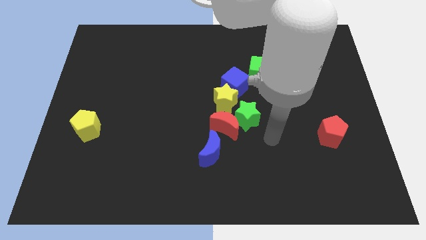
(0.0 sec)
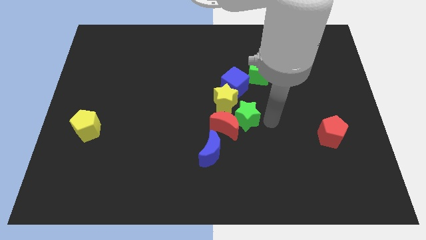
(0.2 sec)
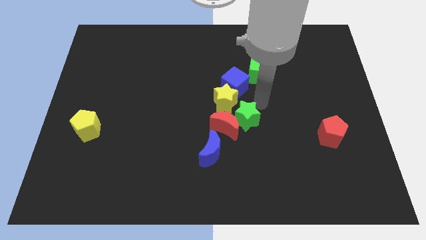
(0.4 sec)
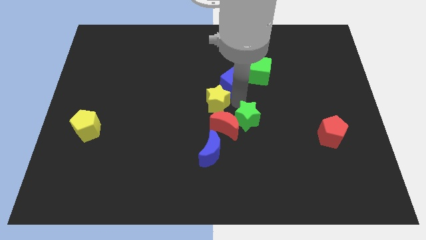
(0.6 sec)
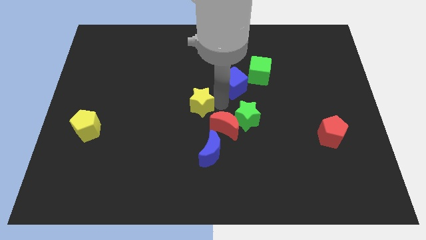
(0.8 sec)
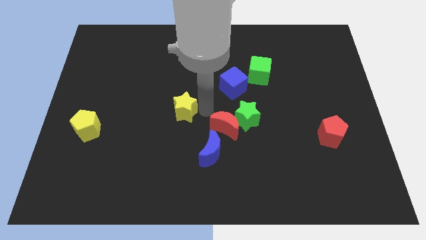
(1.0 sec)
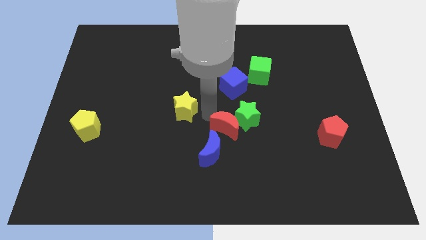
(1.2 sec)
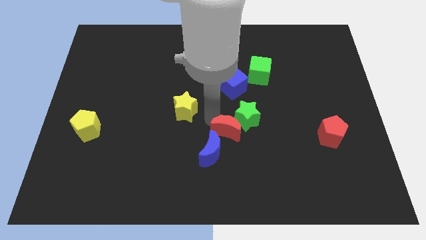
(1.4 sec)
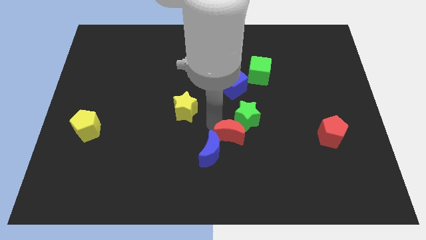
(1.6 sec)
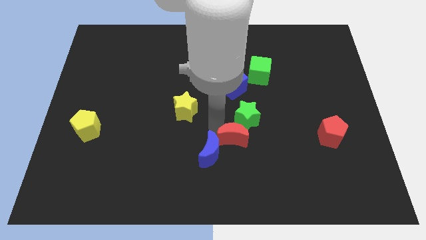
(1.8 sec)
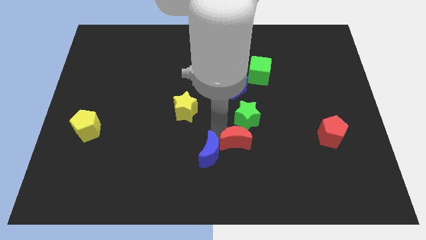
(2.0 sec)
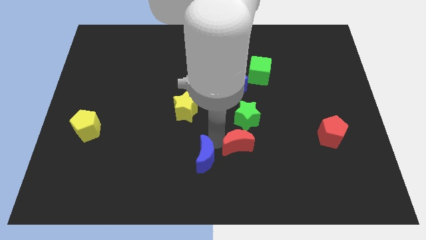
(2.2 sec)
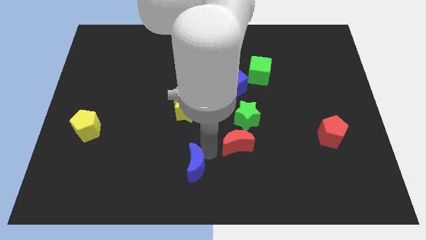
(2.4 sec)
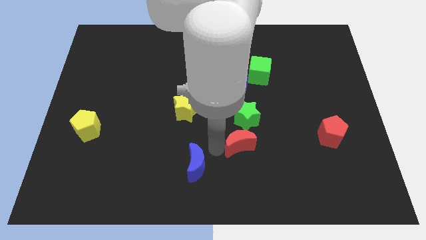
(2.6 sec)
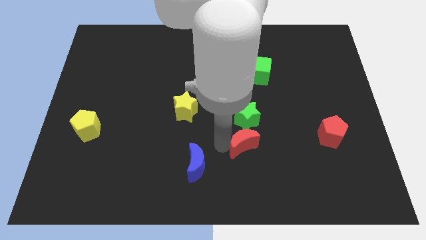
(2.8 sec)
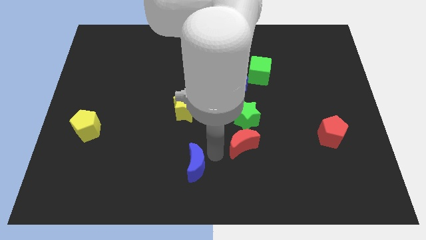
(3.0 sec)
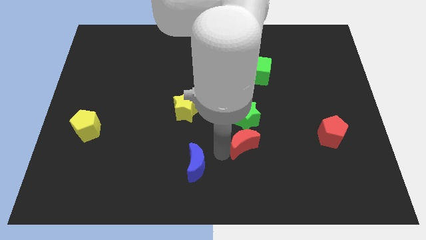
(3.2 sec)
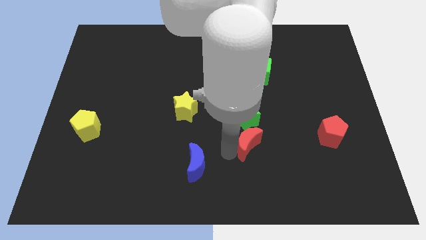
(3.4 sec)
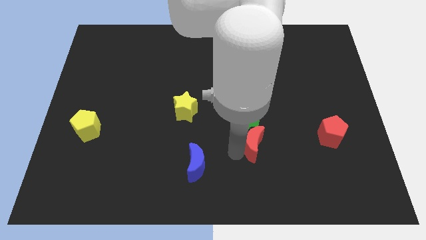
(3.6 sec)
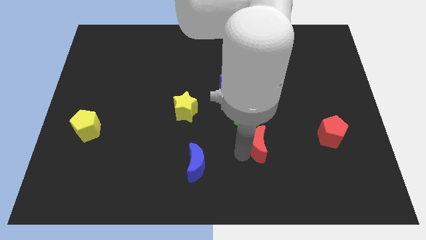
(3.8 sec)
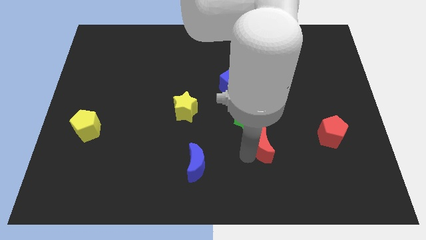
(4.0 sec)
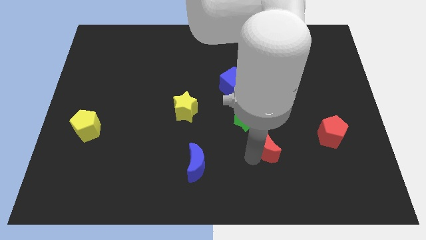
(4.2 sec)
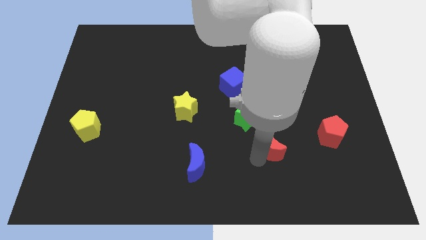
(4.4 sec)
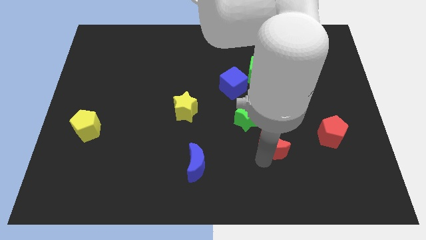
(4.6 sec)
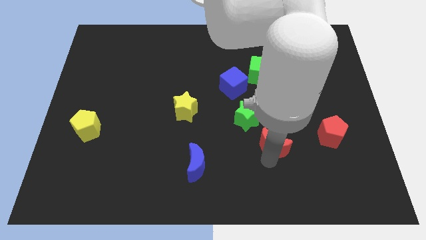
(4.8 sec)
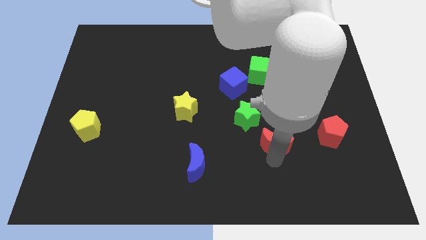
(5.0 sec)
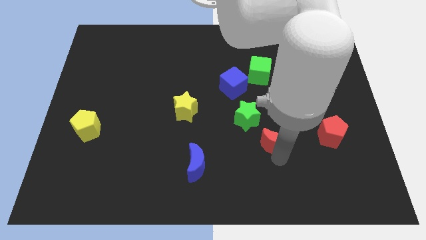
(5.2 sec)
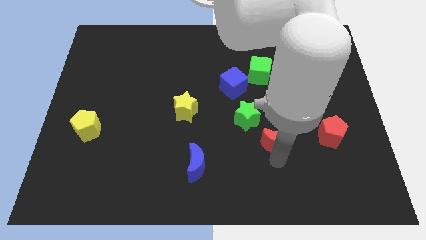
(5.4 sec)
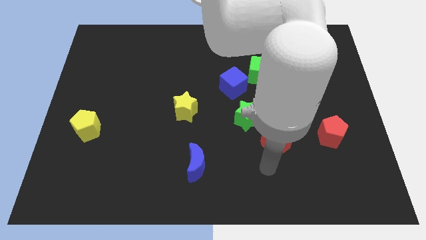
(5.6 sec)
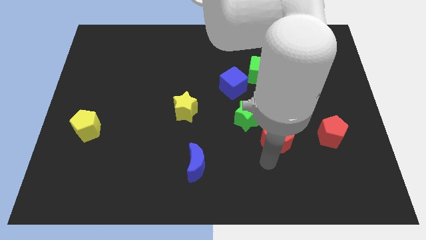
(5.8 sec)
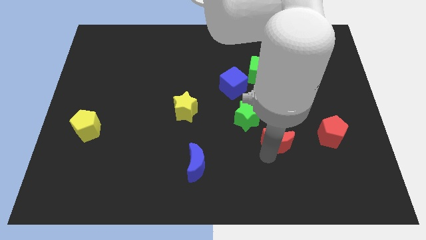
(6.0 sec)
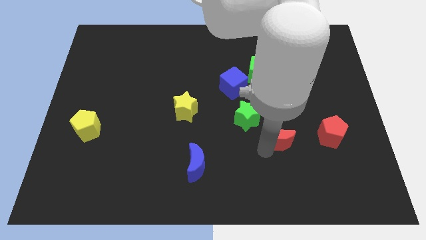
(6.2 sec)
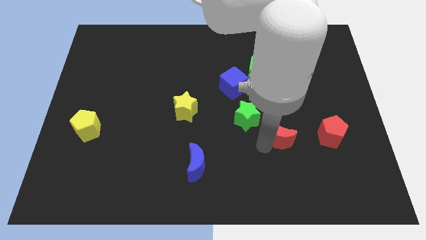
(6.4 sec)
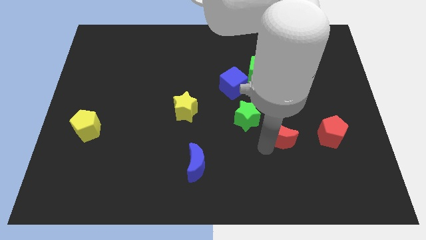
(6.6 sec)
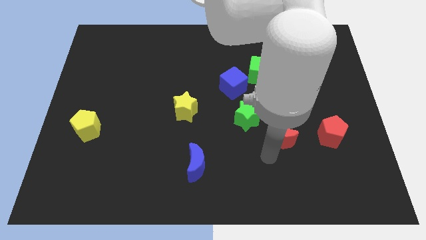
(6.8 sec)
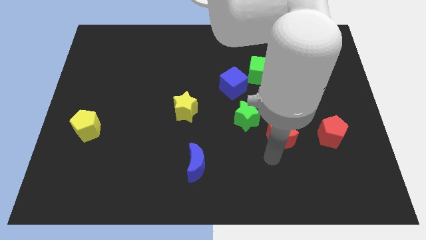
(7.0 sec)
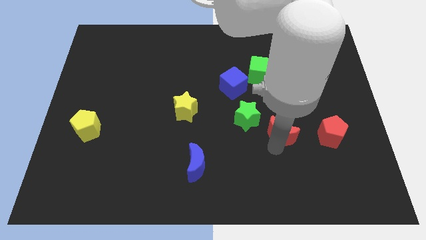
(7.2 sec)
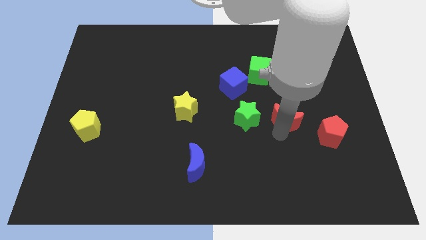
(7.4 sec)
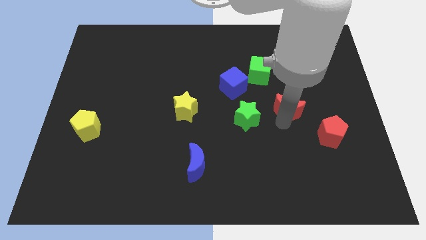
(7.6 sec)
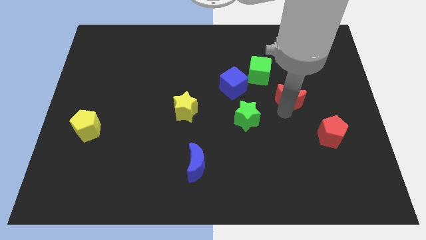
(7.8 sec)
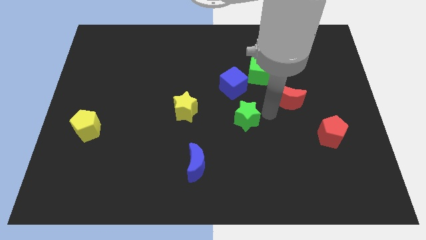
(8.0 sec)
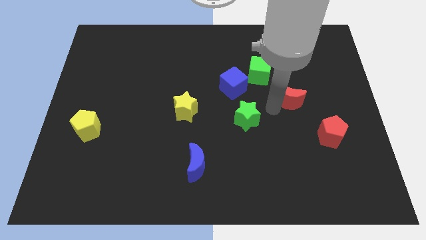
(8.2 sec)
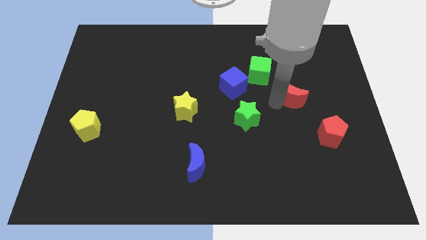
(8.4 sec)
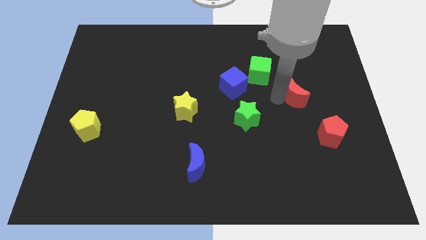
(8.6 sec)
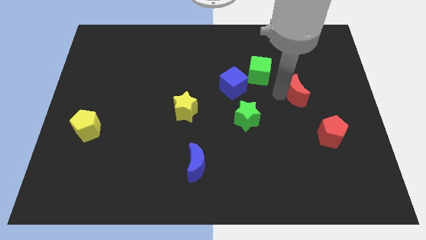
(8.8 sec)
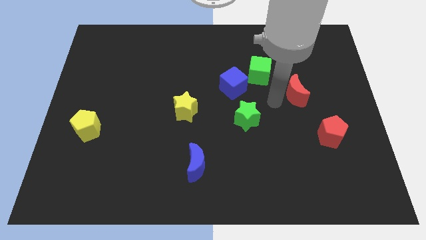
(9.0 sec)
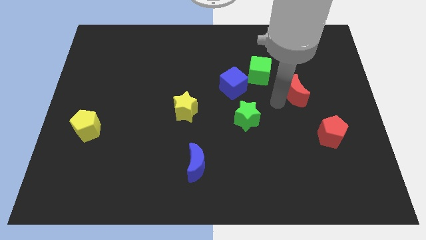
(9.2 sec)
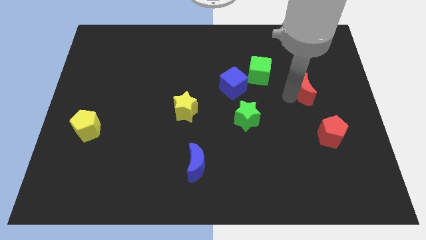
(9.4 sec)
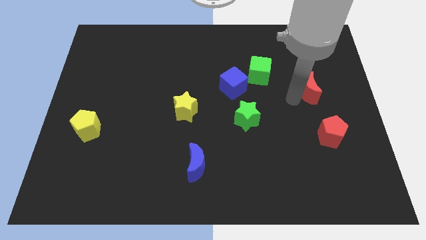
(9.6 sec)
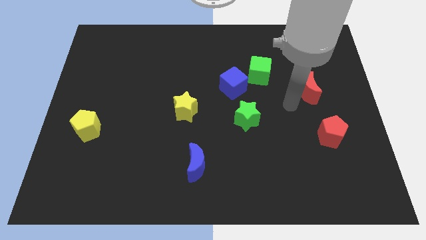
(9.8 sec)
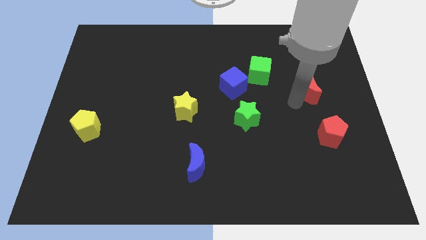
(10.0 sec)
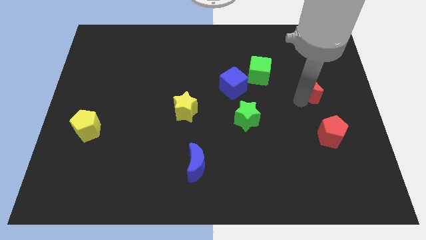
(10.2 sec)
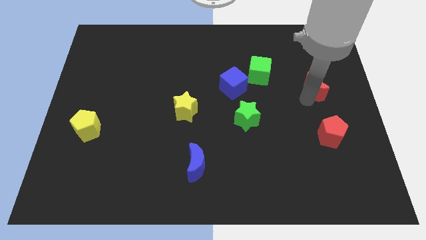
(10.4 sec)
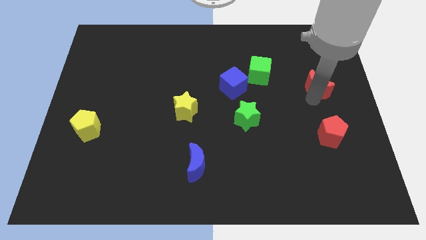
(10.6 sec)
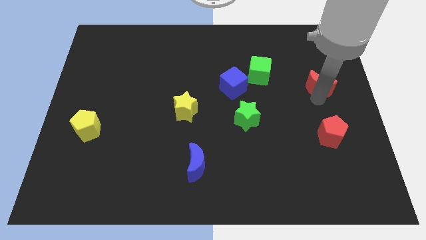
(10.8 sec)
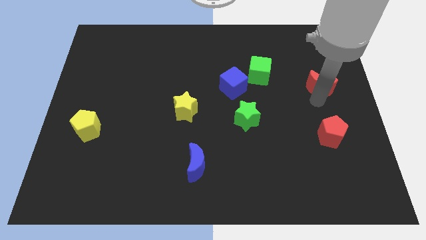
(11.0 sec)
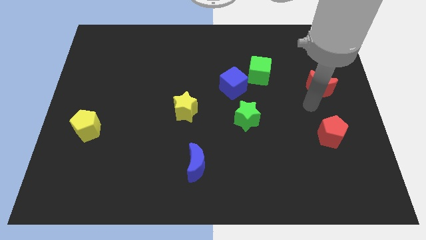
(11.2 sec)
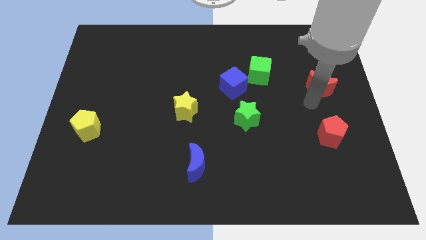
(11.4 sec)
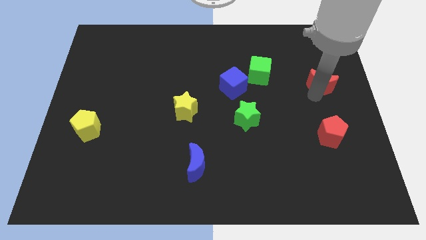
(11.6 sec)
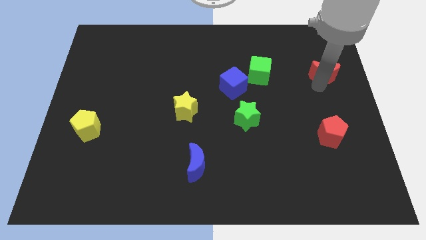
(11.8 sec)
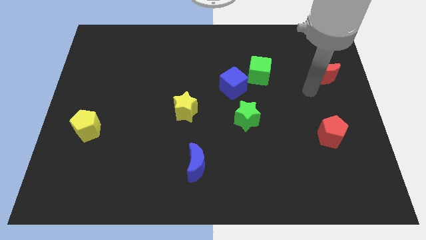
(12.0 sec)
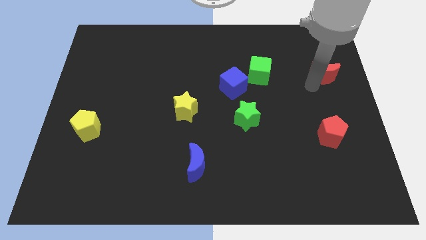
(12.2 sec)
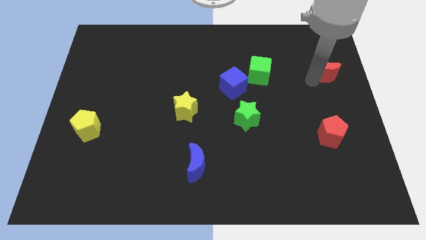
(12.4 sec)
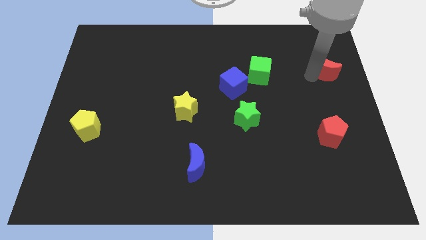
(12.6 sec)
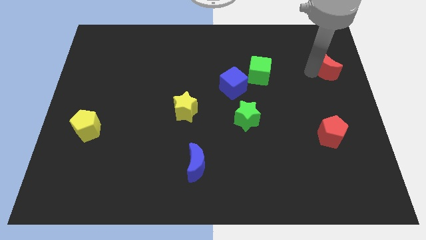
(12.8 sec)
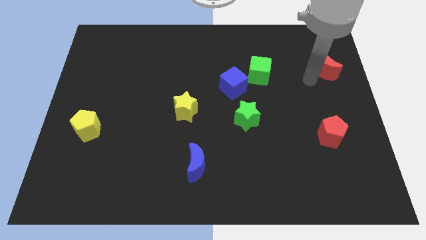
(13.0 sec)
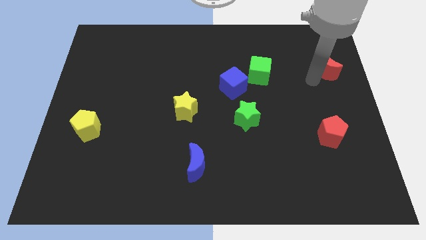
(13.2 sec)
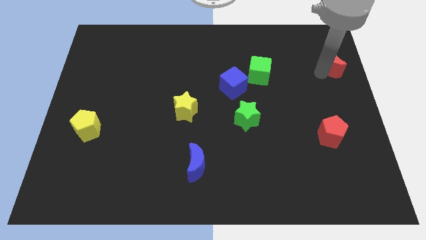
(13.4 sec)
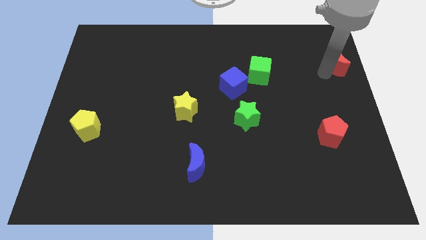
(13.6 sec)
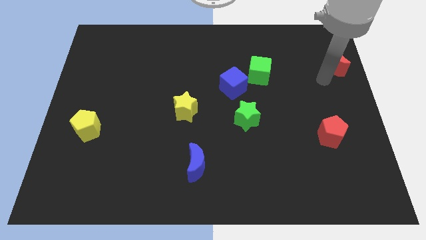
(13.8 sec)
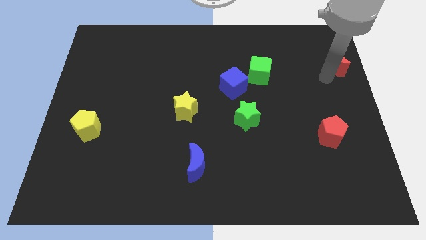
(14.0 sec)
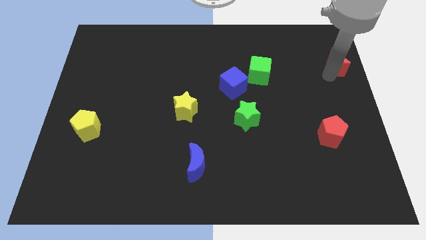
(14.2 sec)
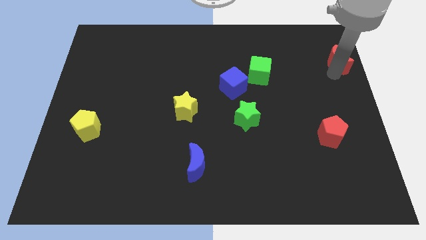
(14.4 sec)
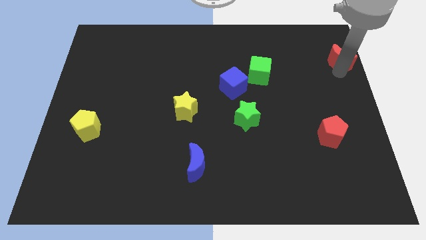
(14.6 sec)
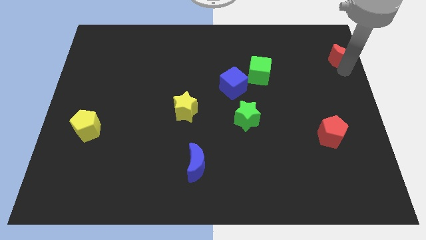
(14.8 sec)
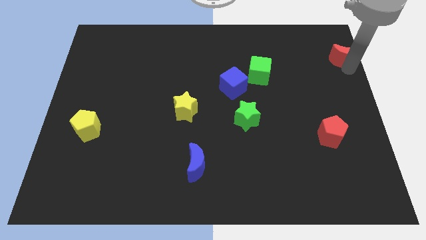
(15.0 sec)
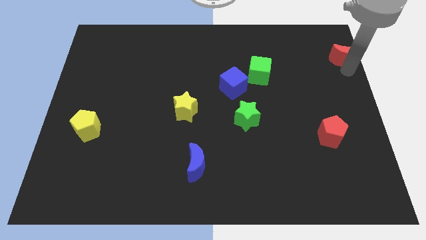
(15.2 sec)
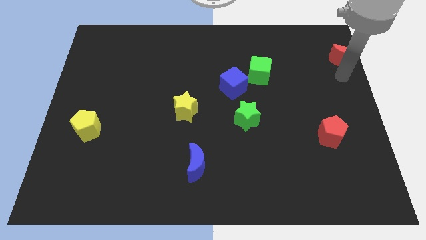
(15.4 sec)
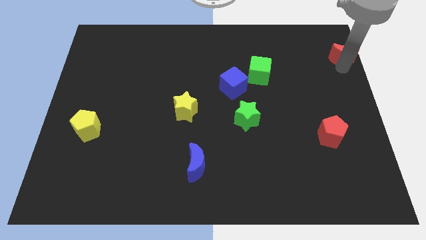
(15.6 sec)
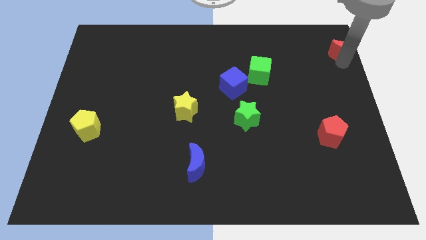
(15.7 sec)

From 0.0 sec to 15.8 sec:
push the red moon to the top right corner
